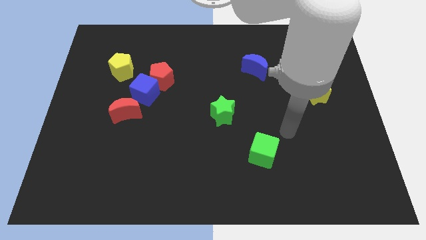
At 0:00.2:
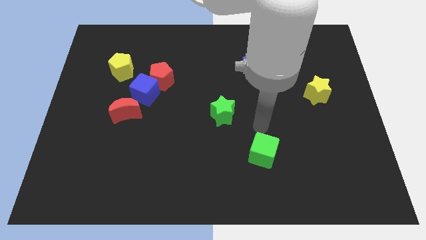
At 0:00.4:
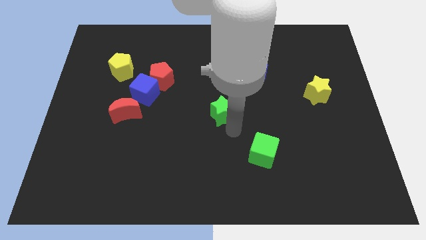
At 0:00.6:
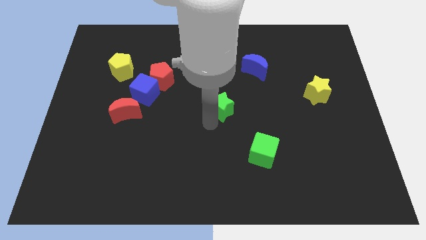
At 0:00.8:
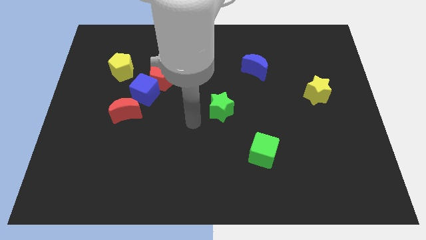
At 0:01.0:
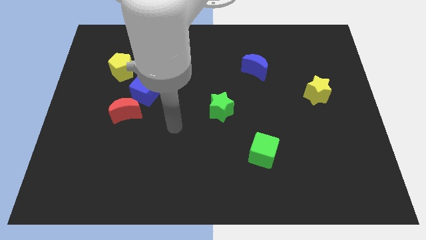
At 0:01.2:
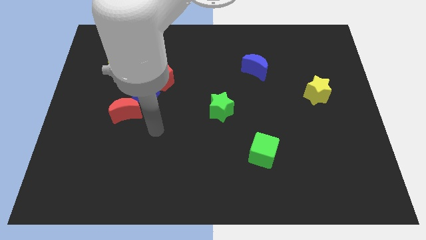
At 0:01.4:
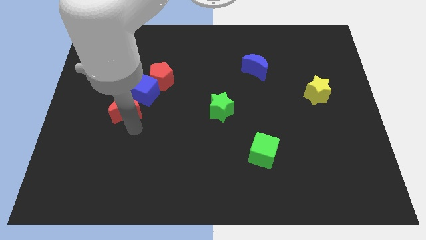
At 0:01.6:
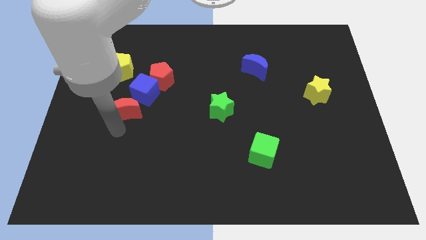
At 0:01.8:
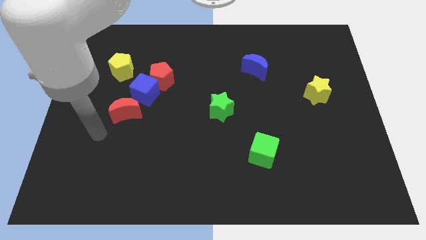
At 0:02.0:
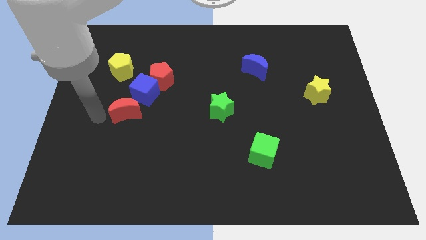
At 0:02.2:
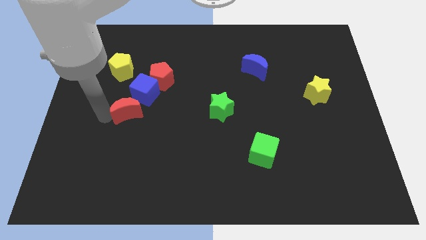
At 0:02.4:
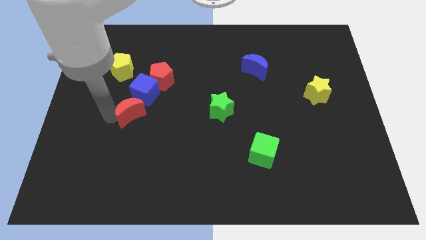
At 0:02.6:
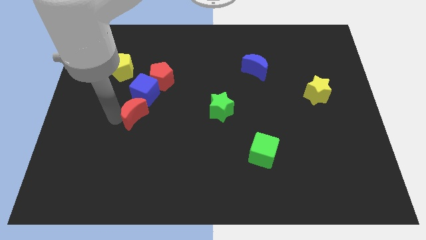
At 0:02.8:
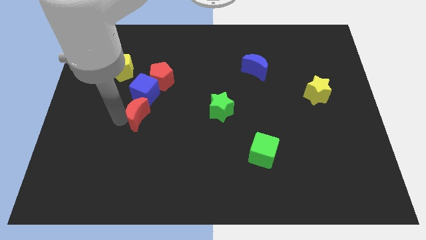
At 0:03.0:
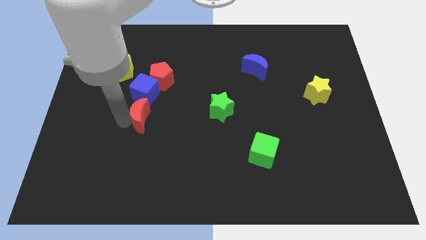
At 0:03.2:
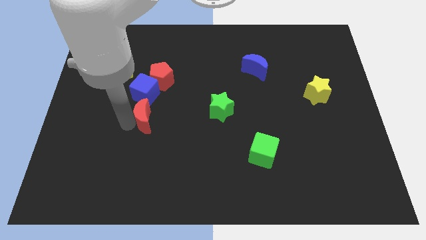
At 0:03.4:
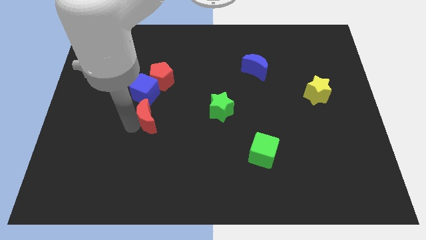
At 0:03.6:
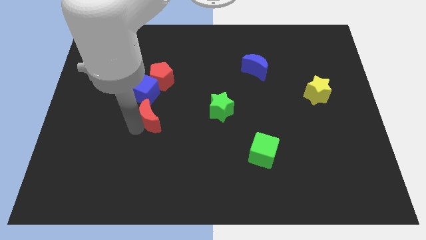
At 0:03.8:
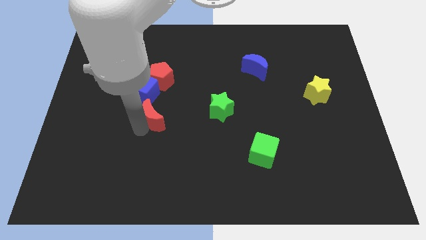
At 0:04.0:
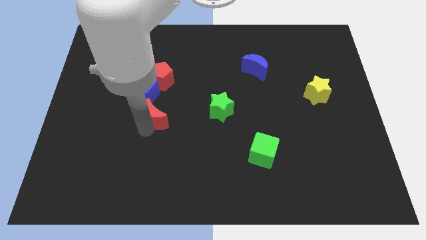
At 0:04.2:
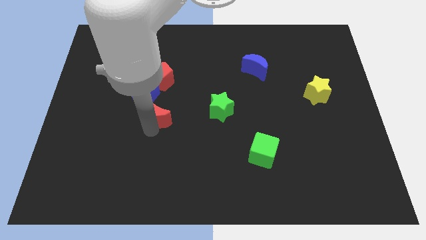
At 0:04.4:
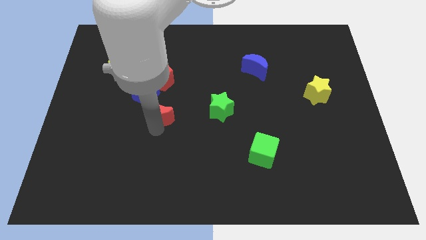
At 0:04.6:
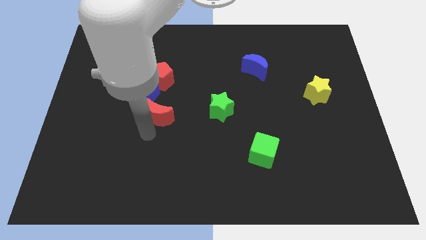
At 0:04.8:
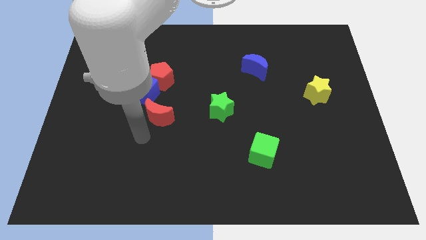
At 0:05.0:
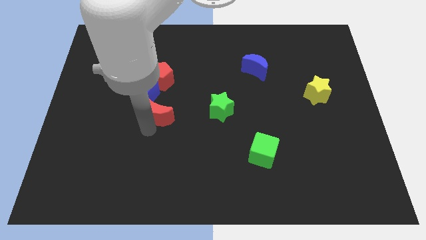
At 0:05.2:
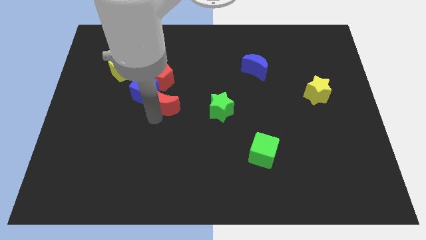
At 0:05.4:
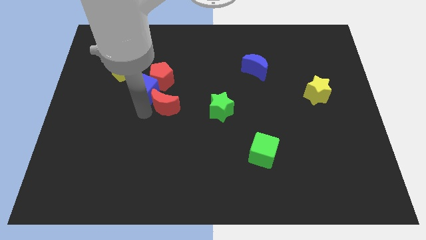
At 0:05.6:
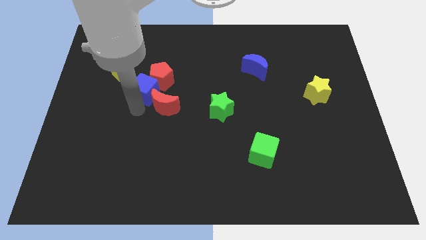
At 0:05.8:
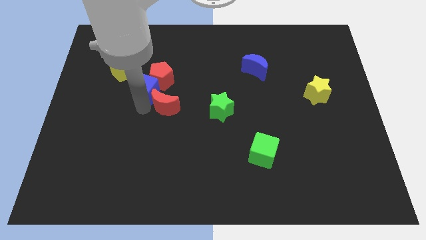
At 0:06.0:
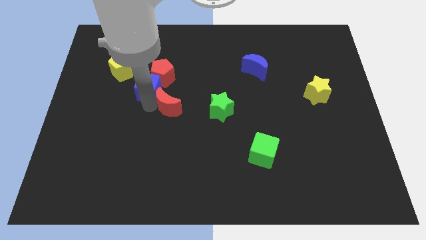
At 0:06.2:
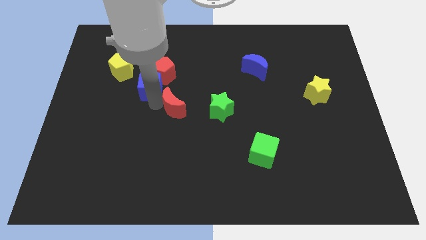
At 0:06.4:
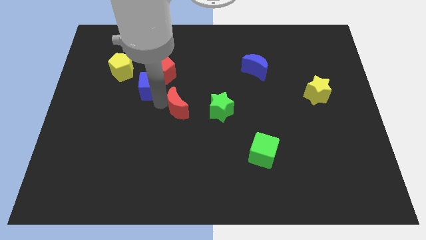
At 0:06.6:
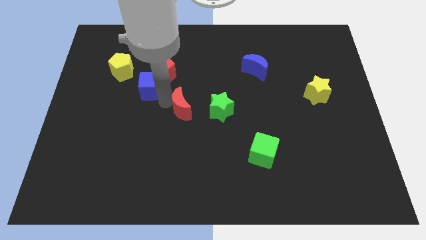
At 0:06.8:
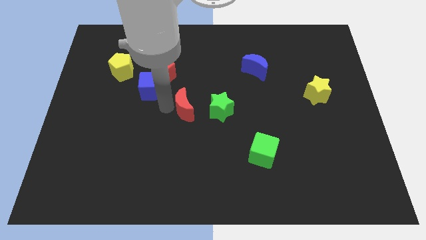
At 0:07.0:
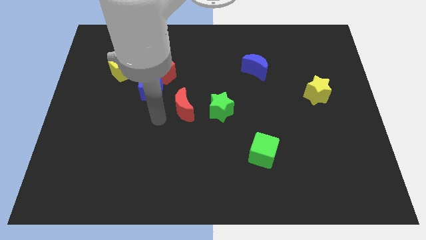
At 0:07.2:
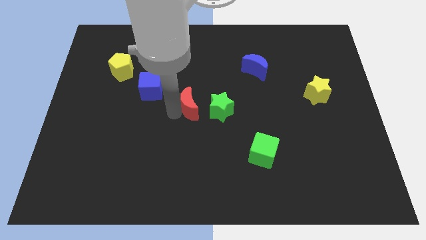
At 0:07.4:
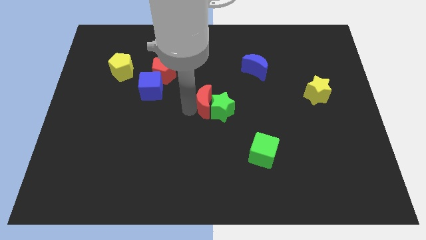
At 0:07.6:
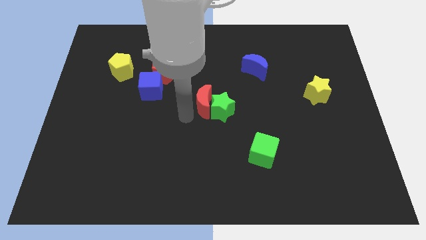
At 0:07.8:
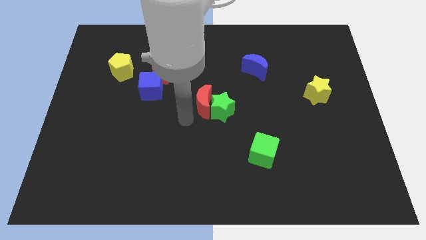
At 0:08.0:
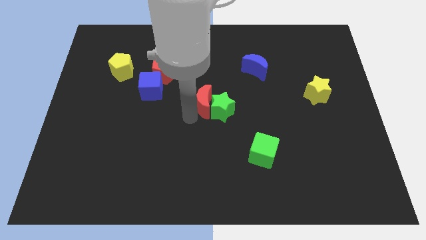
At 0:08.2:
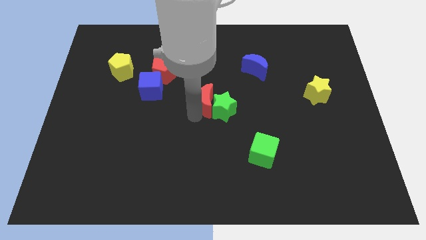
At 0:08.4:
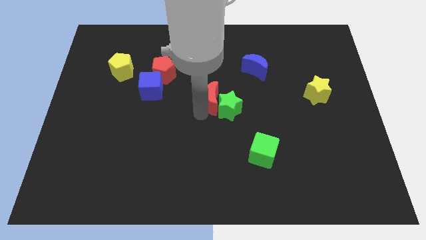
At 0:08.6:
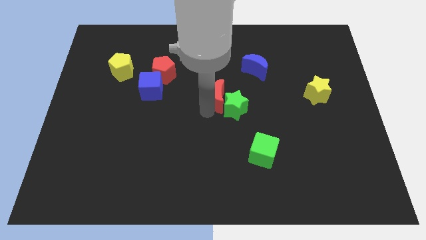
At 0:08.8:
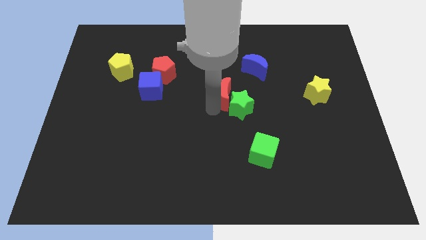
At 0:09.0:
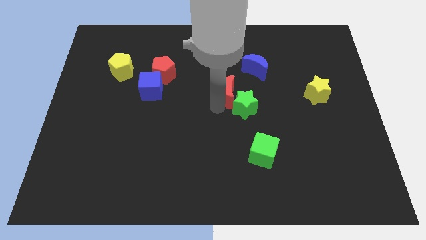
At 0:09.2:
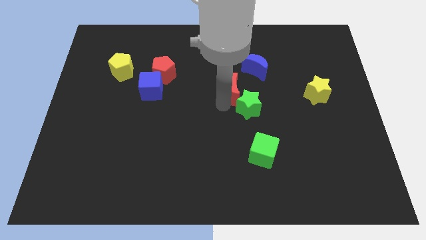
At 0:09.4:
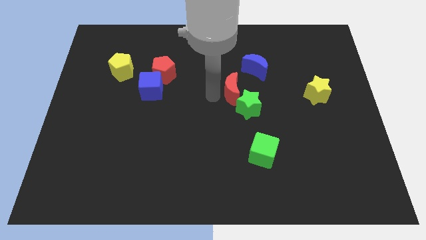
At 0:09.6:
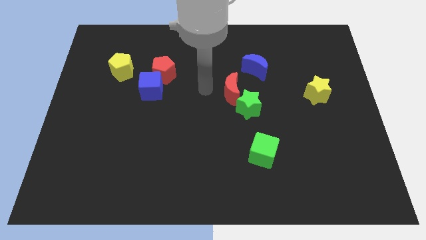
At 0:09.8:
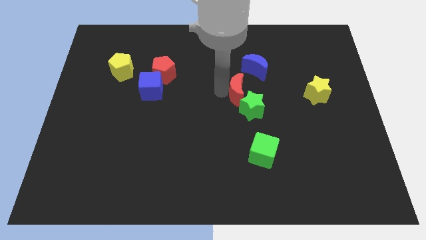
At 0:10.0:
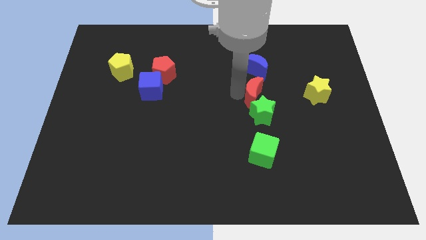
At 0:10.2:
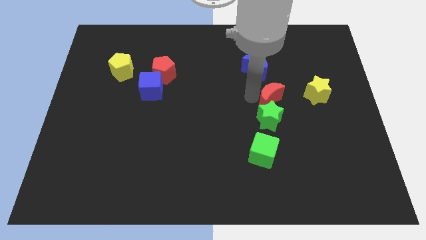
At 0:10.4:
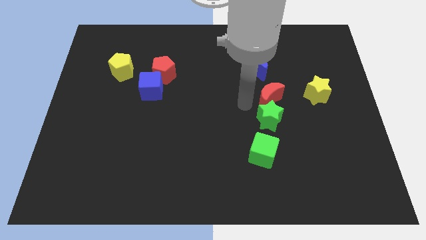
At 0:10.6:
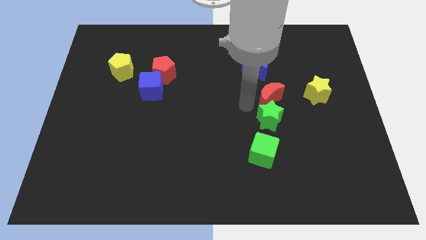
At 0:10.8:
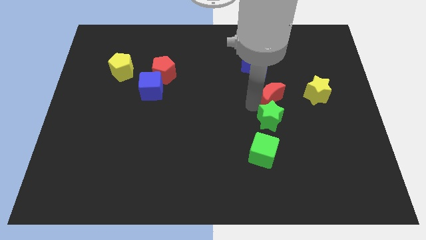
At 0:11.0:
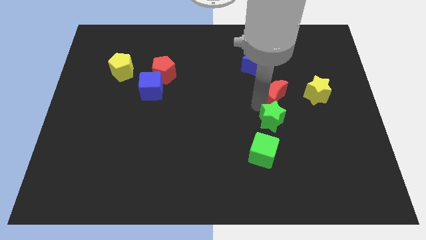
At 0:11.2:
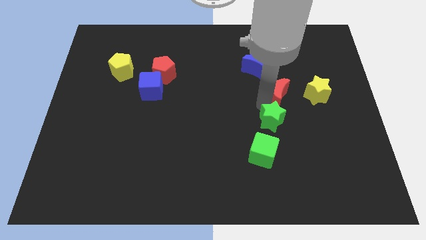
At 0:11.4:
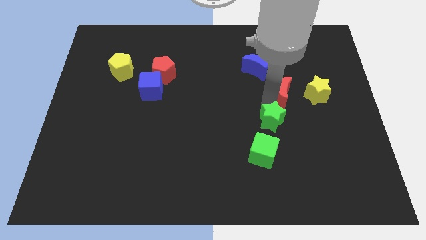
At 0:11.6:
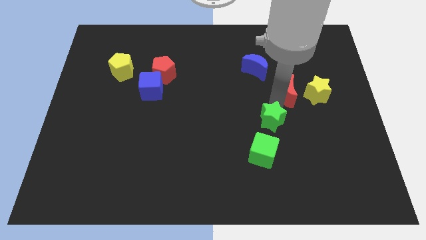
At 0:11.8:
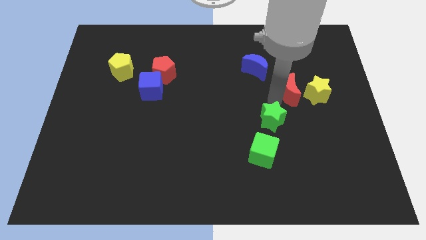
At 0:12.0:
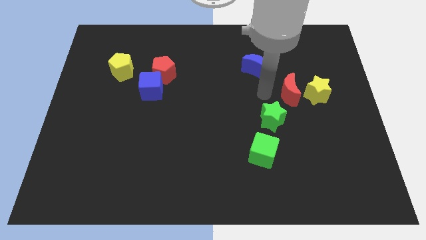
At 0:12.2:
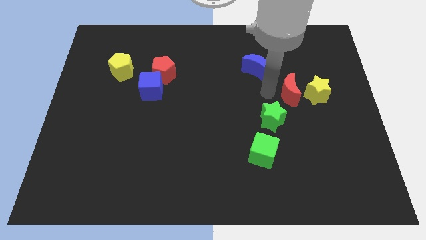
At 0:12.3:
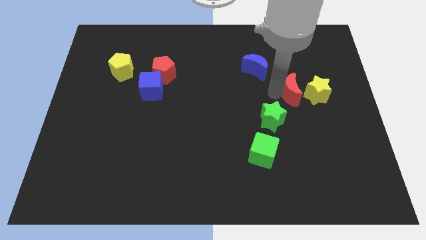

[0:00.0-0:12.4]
move the red moon close to the yellow star

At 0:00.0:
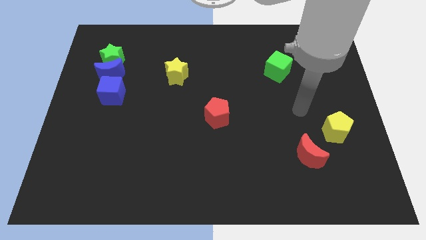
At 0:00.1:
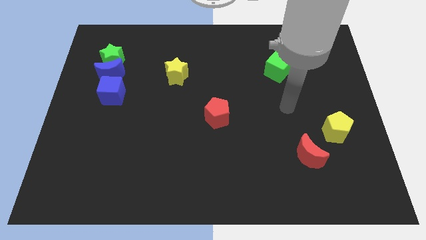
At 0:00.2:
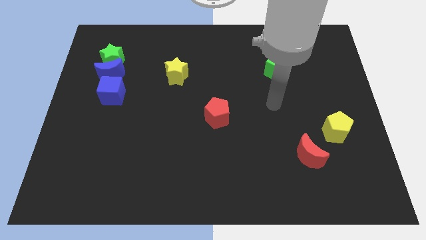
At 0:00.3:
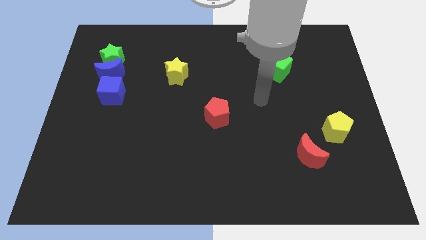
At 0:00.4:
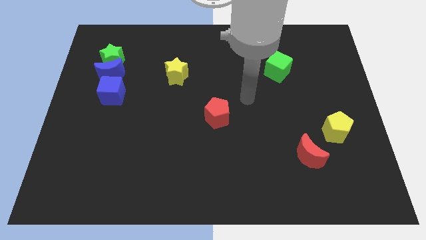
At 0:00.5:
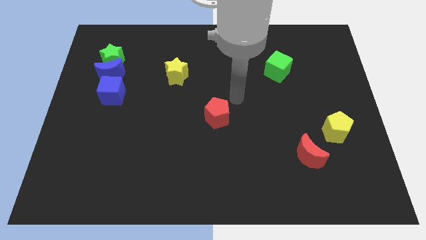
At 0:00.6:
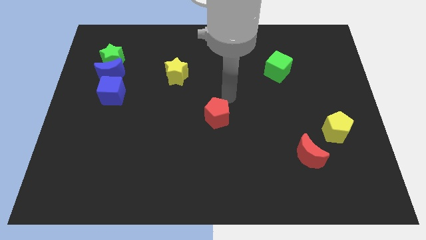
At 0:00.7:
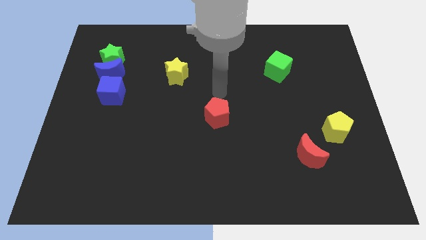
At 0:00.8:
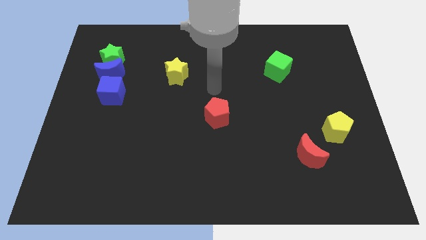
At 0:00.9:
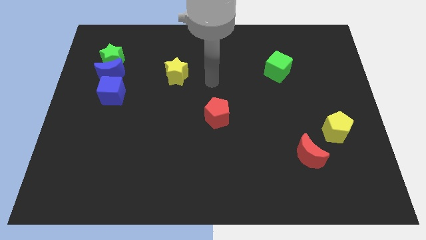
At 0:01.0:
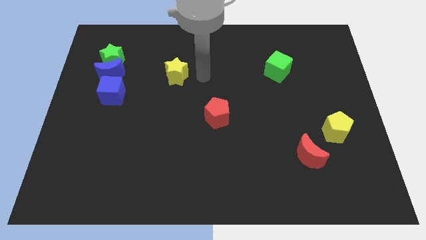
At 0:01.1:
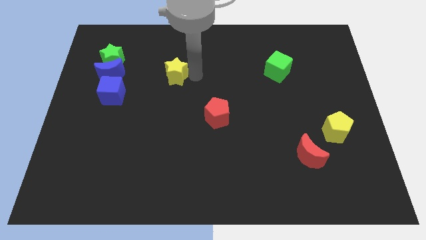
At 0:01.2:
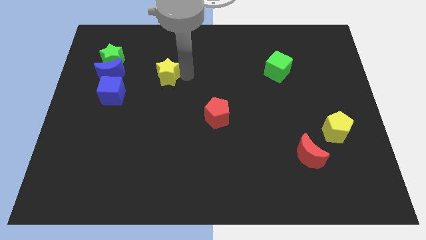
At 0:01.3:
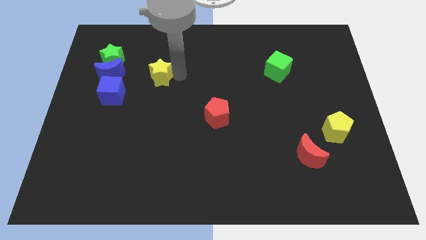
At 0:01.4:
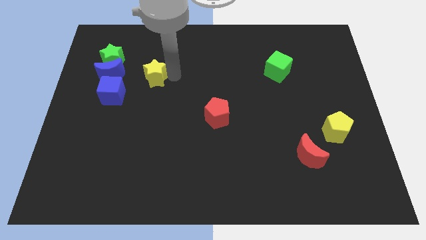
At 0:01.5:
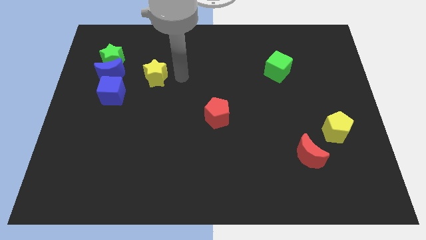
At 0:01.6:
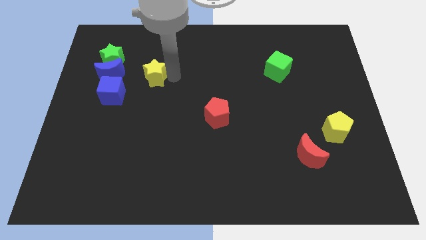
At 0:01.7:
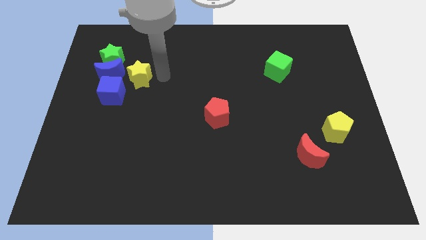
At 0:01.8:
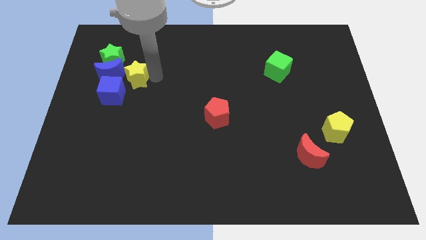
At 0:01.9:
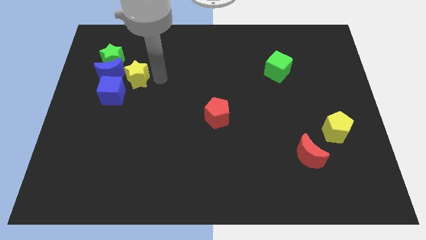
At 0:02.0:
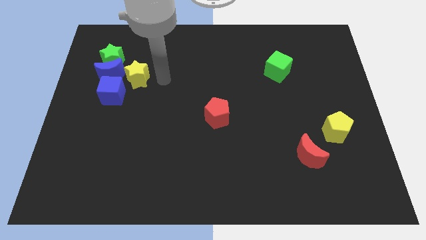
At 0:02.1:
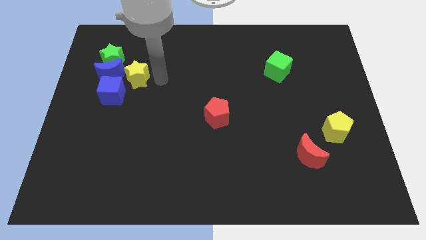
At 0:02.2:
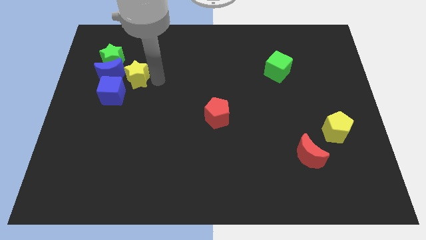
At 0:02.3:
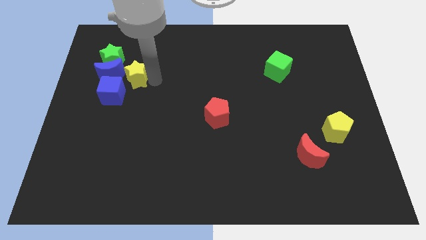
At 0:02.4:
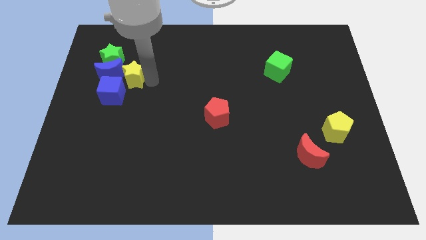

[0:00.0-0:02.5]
push the yellow star towards the blue moon
